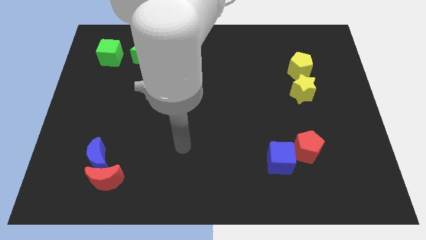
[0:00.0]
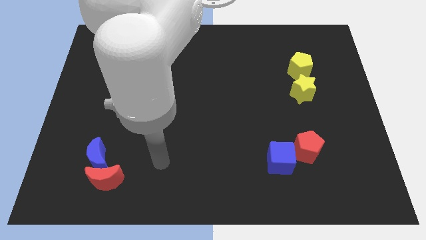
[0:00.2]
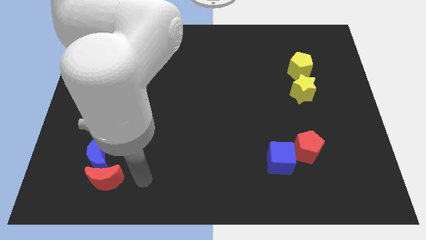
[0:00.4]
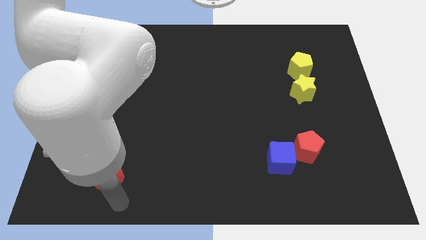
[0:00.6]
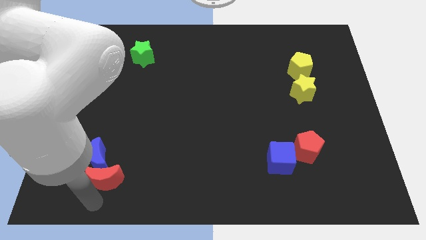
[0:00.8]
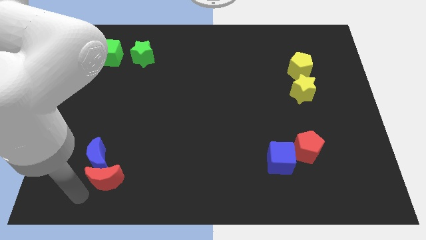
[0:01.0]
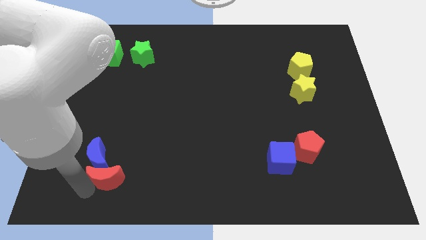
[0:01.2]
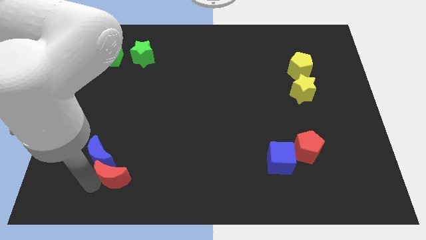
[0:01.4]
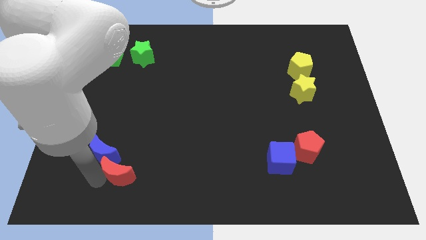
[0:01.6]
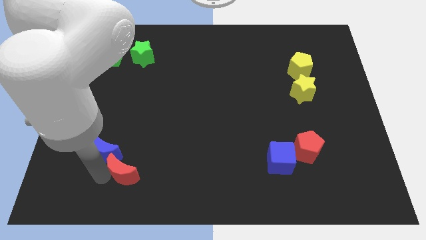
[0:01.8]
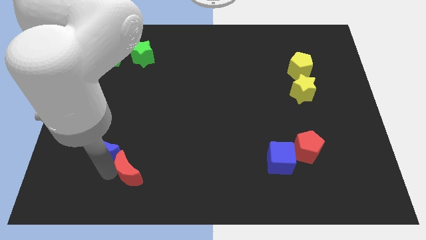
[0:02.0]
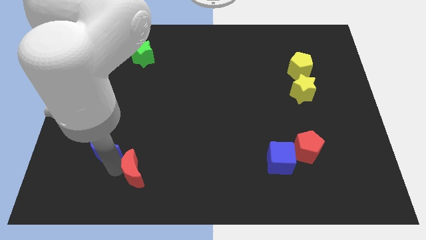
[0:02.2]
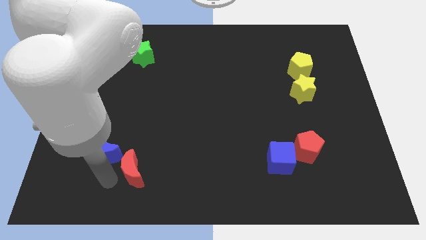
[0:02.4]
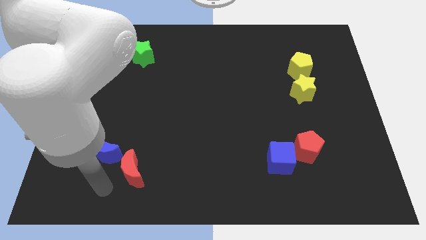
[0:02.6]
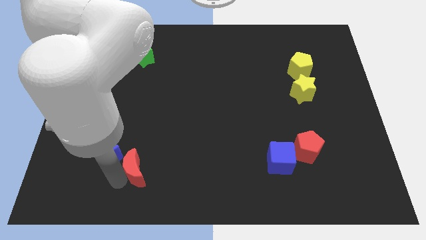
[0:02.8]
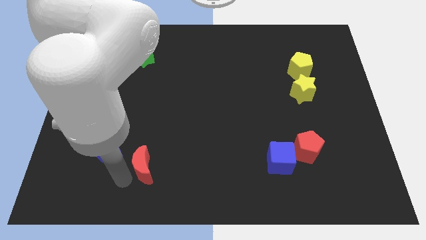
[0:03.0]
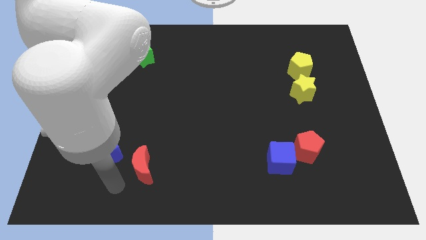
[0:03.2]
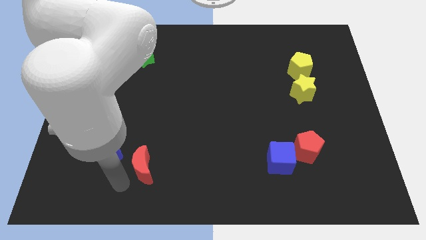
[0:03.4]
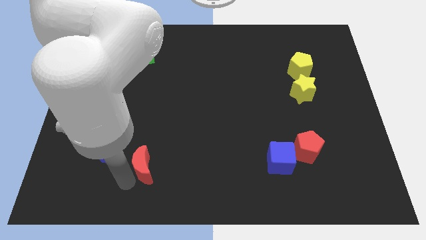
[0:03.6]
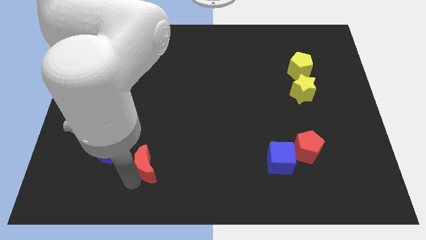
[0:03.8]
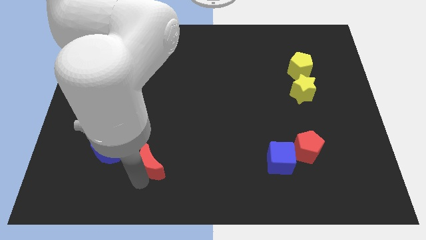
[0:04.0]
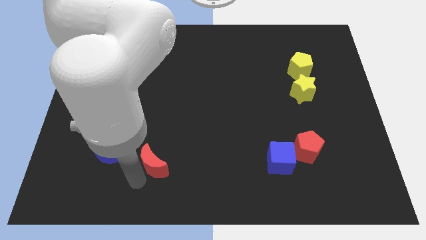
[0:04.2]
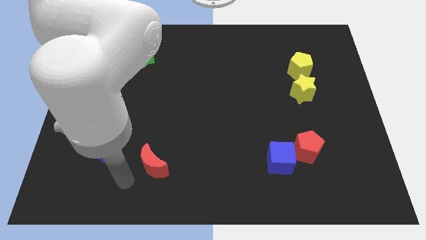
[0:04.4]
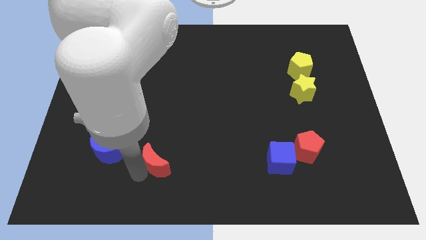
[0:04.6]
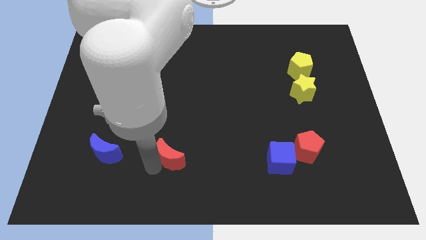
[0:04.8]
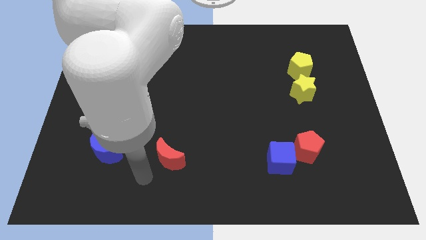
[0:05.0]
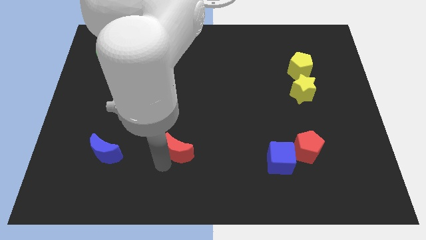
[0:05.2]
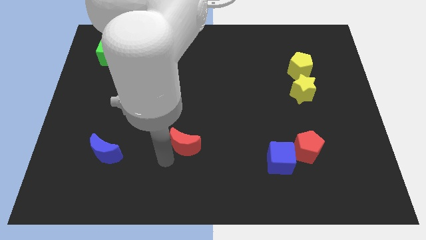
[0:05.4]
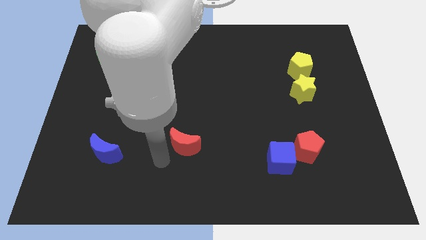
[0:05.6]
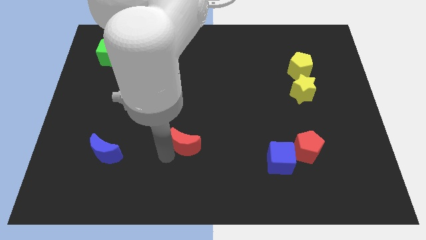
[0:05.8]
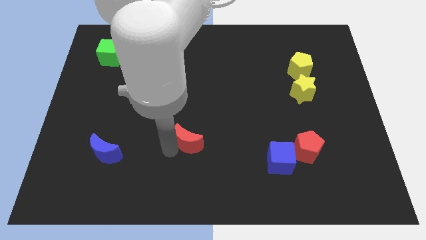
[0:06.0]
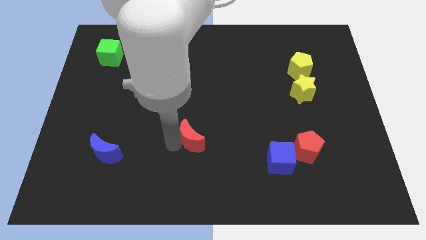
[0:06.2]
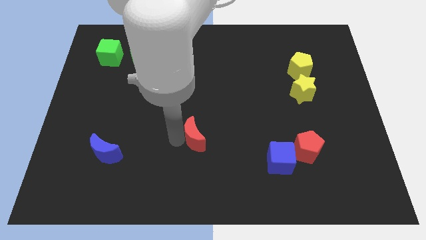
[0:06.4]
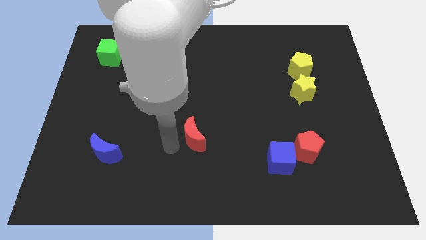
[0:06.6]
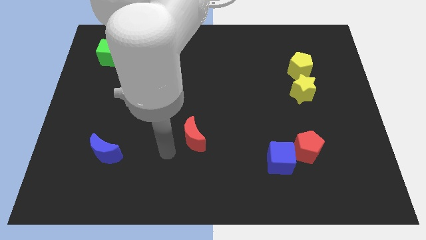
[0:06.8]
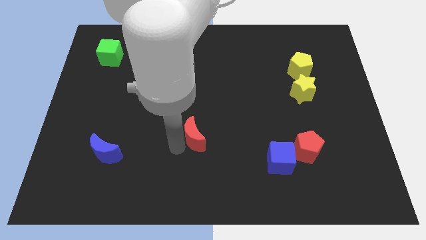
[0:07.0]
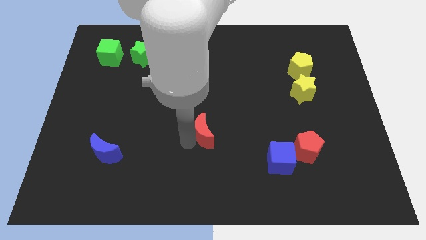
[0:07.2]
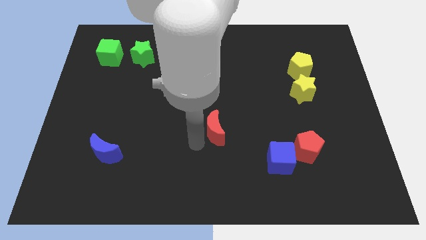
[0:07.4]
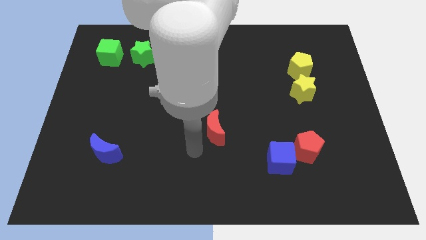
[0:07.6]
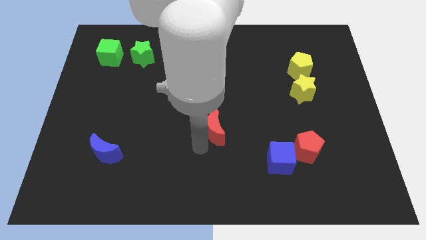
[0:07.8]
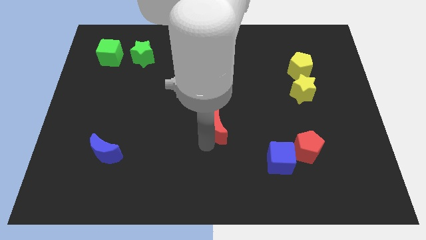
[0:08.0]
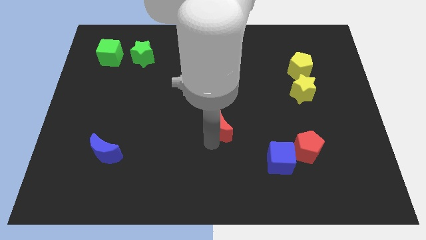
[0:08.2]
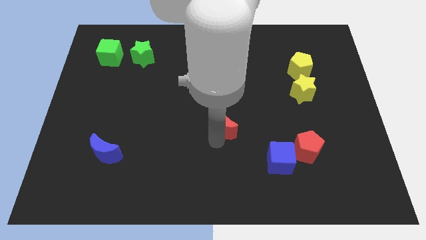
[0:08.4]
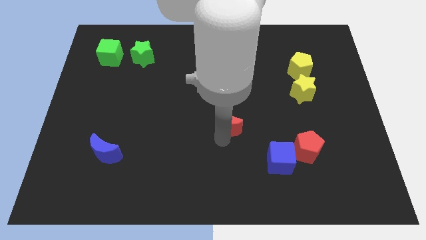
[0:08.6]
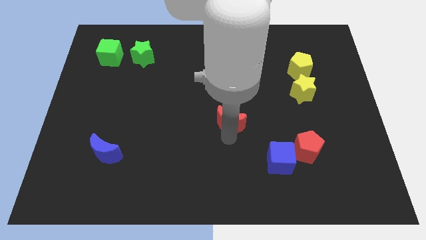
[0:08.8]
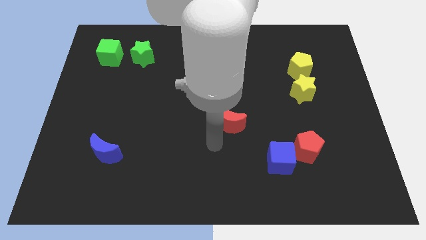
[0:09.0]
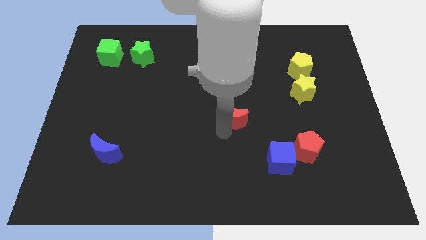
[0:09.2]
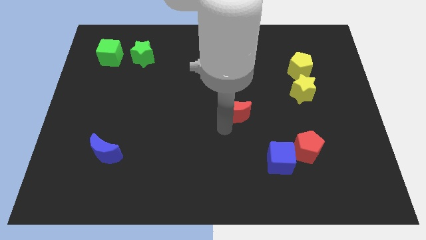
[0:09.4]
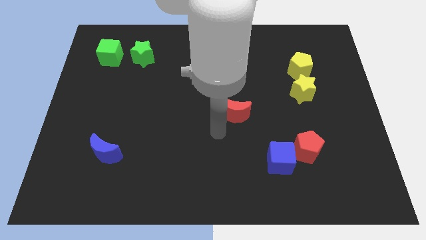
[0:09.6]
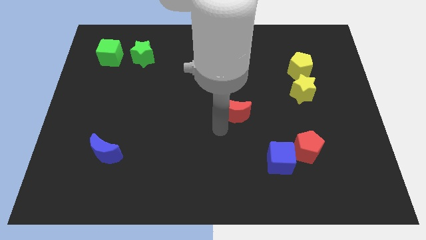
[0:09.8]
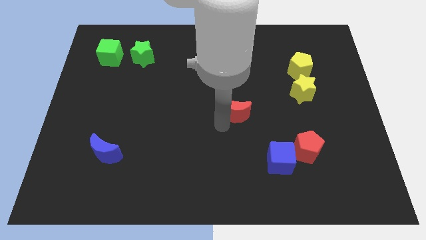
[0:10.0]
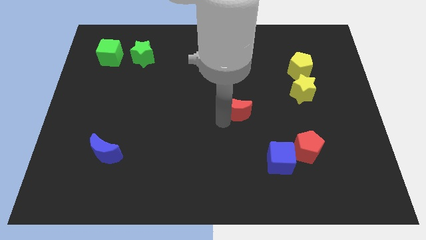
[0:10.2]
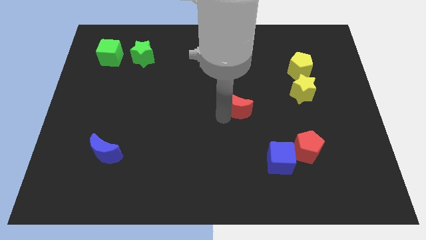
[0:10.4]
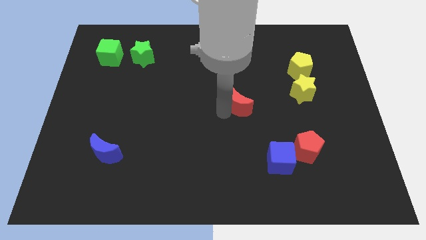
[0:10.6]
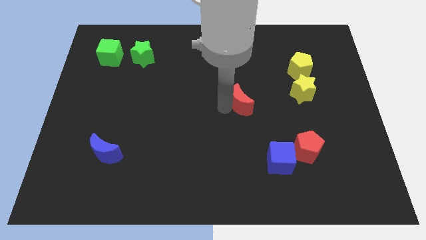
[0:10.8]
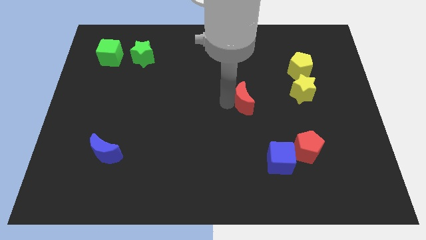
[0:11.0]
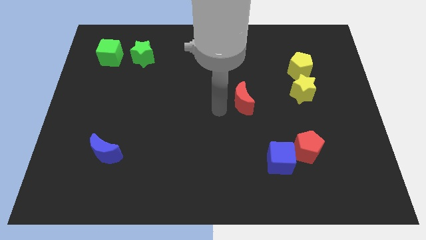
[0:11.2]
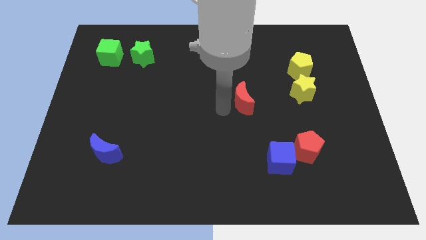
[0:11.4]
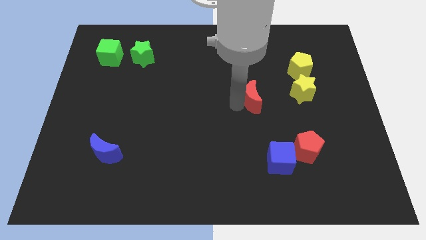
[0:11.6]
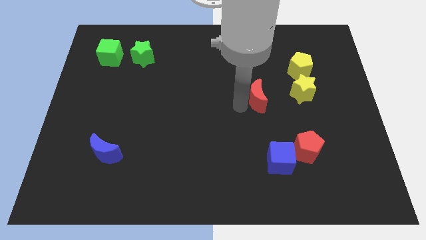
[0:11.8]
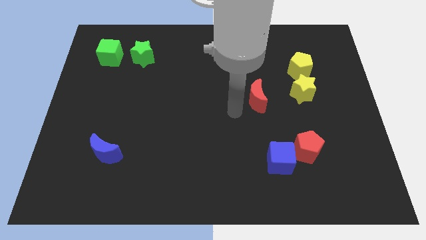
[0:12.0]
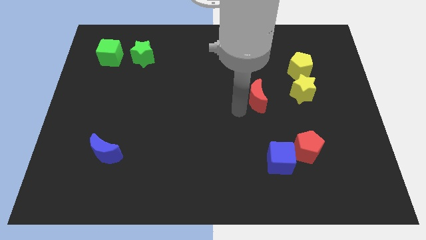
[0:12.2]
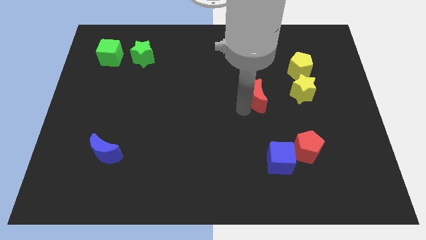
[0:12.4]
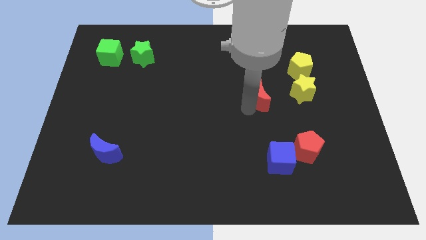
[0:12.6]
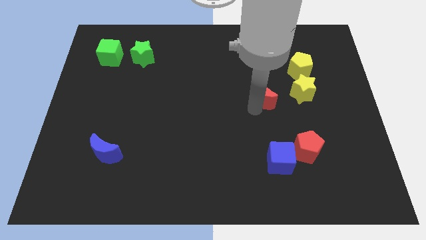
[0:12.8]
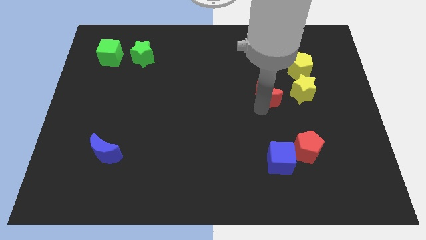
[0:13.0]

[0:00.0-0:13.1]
slide the red moon to the bottom left side of the yellow pentagon
